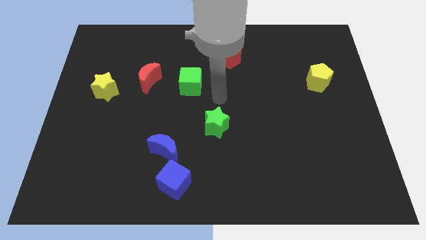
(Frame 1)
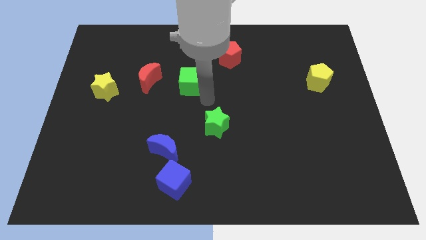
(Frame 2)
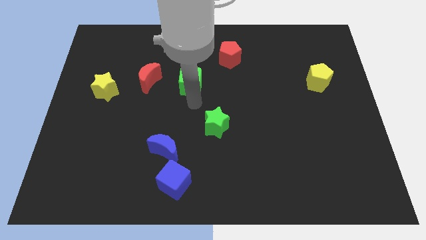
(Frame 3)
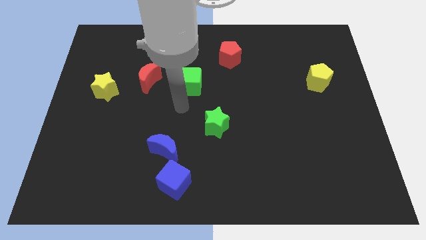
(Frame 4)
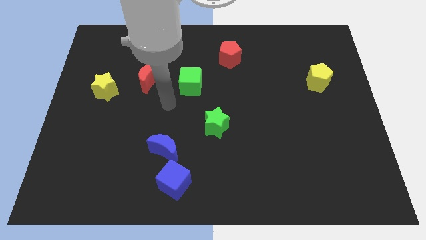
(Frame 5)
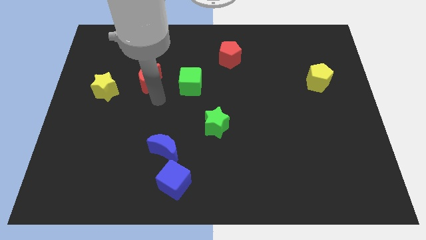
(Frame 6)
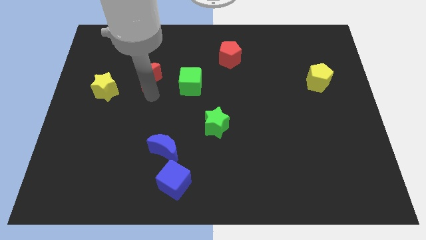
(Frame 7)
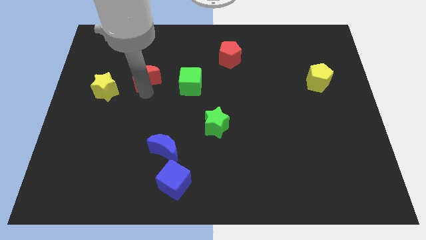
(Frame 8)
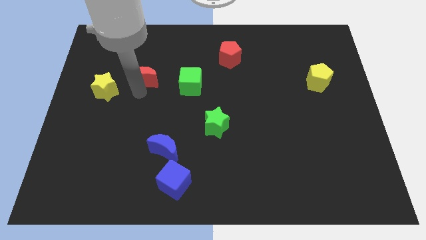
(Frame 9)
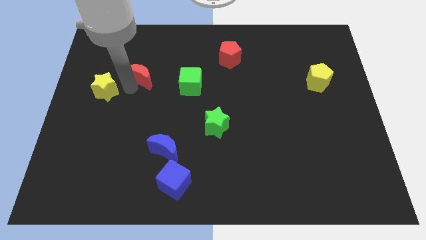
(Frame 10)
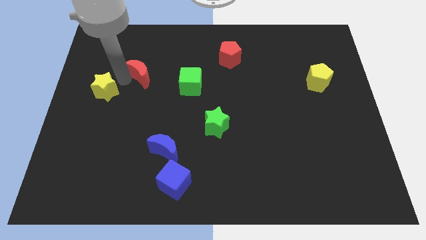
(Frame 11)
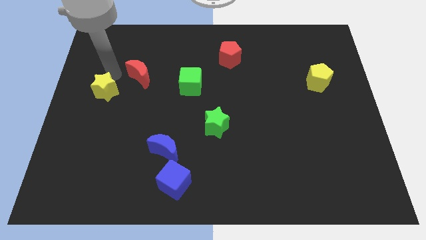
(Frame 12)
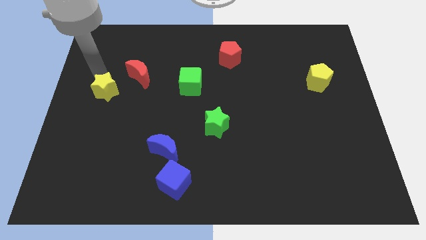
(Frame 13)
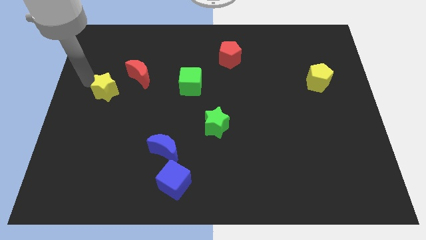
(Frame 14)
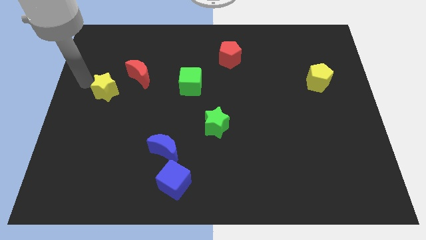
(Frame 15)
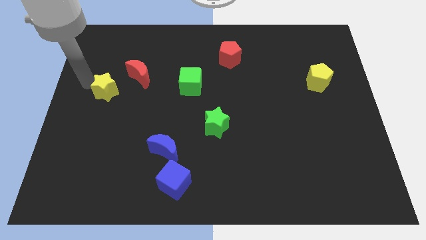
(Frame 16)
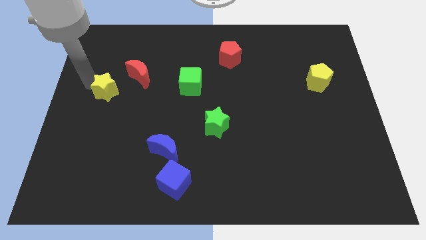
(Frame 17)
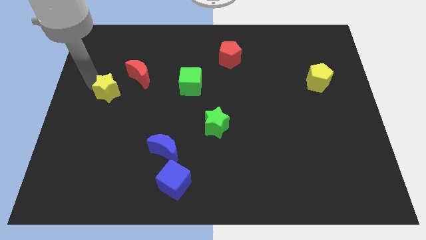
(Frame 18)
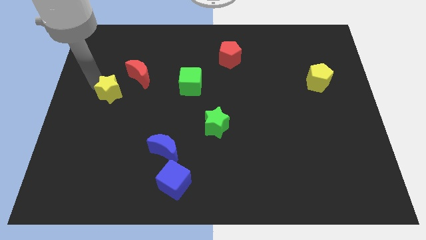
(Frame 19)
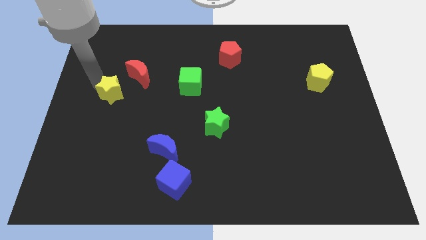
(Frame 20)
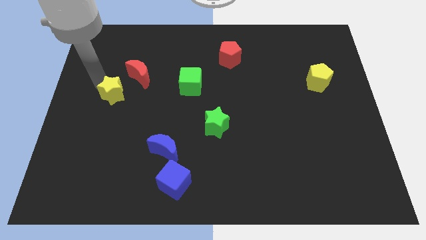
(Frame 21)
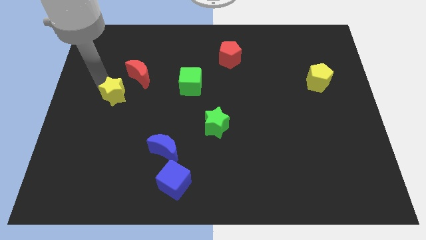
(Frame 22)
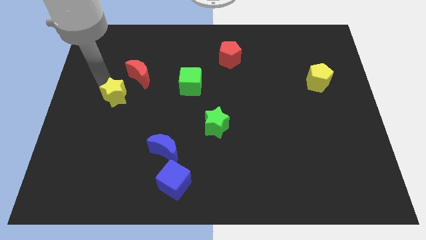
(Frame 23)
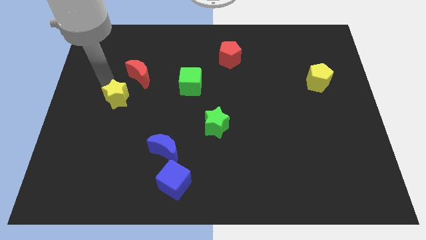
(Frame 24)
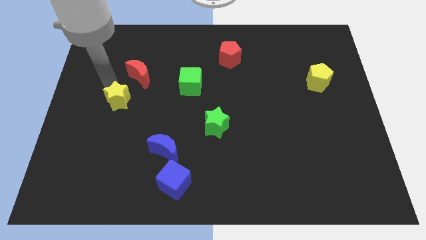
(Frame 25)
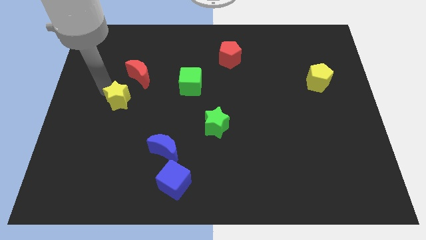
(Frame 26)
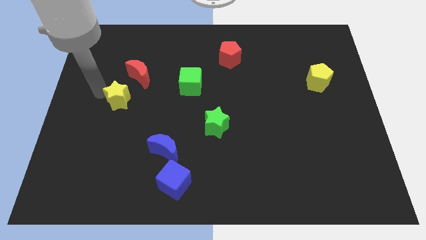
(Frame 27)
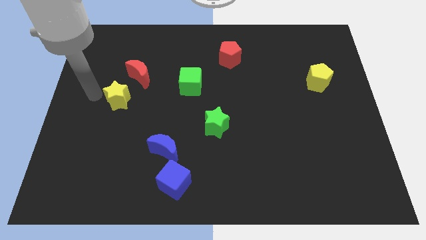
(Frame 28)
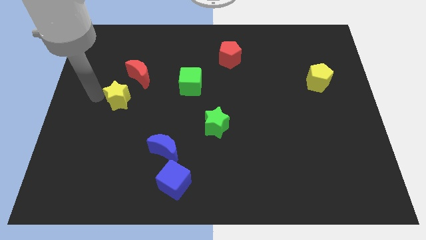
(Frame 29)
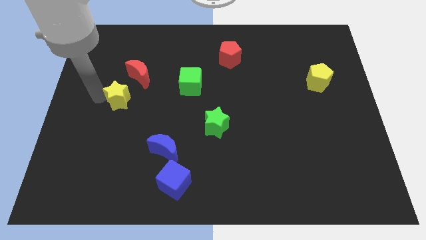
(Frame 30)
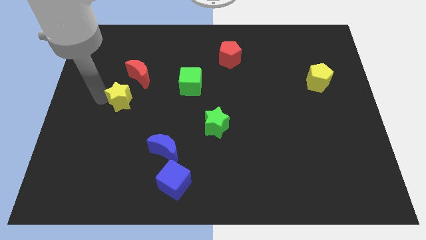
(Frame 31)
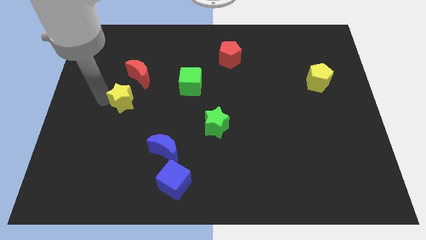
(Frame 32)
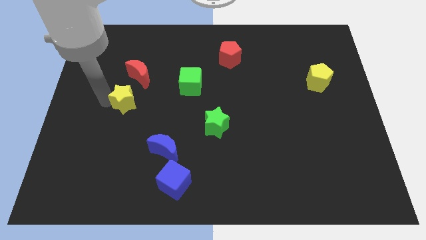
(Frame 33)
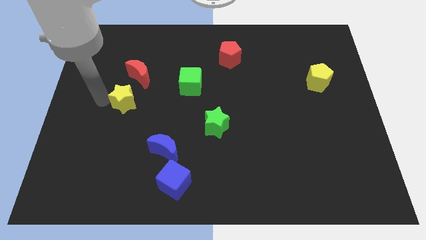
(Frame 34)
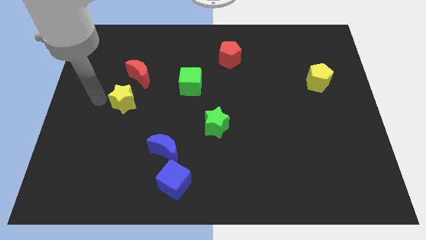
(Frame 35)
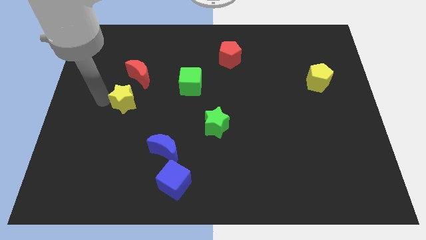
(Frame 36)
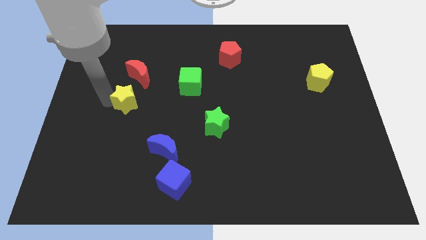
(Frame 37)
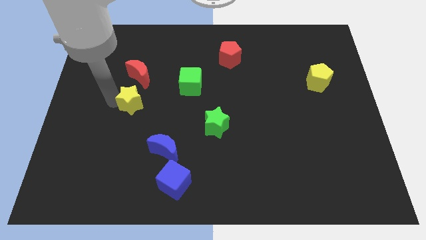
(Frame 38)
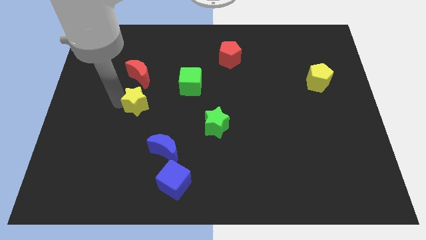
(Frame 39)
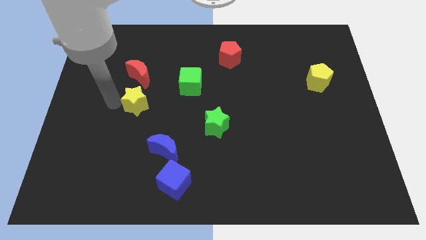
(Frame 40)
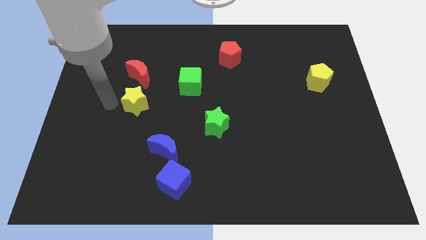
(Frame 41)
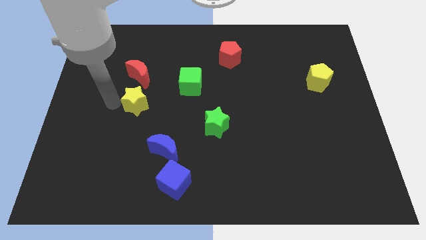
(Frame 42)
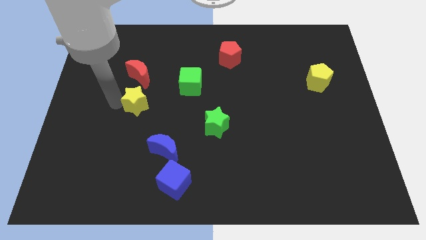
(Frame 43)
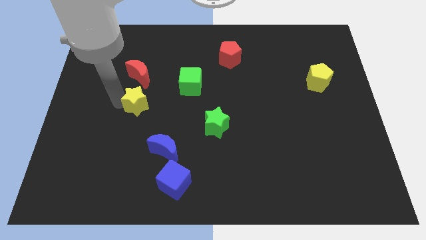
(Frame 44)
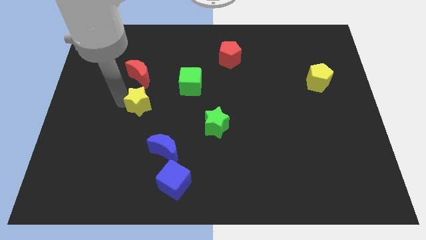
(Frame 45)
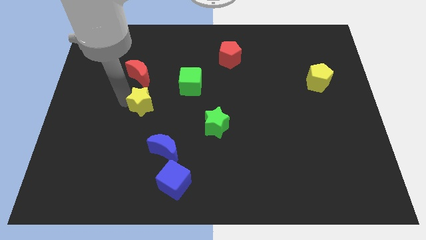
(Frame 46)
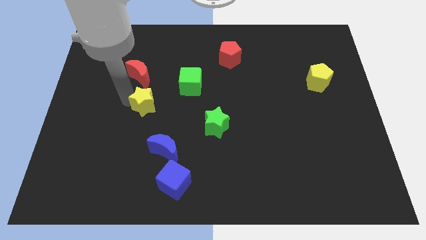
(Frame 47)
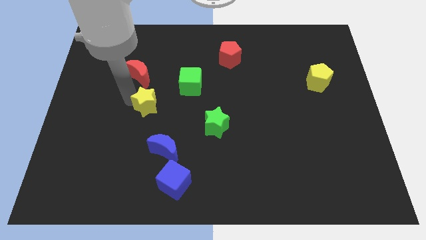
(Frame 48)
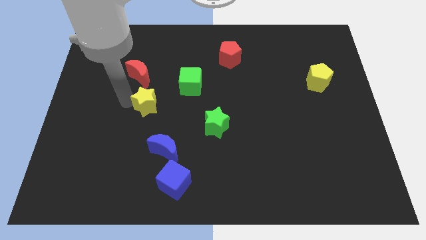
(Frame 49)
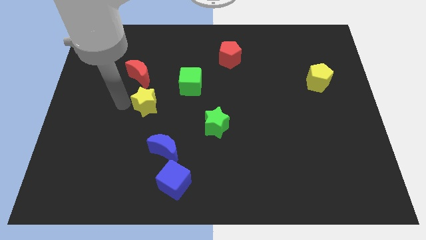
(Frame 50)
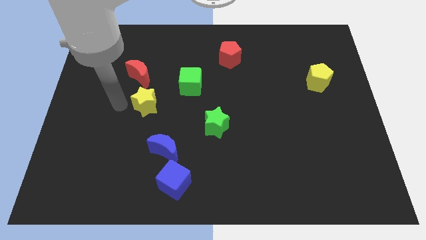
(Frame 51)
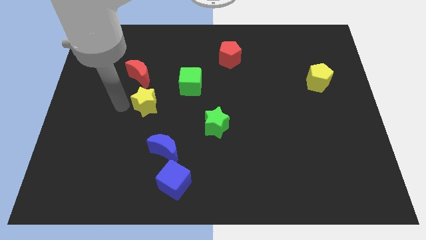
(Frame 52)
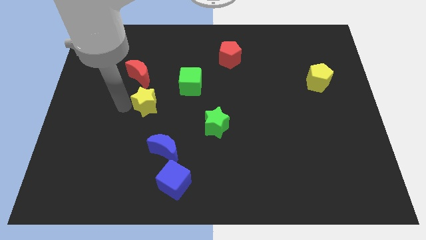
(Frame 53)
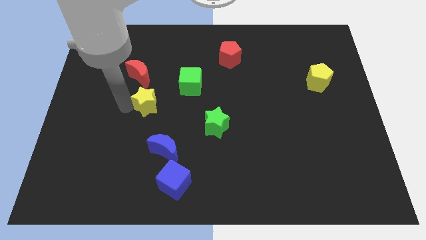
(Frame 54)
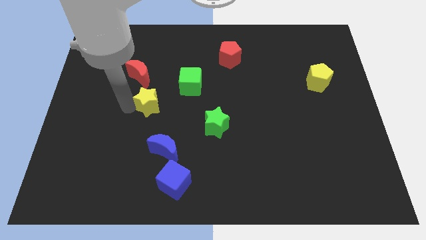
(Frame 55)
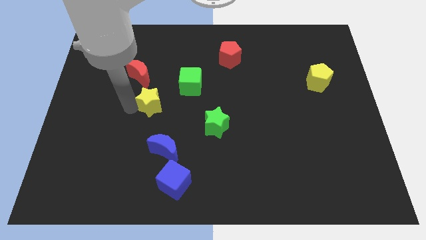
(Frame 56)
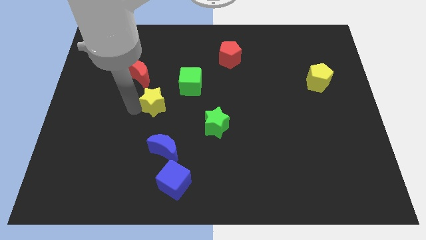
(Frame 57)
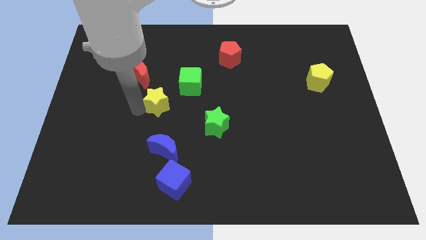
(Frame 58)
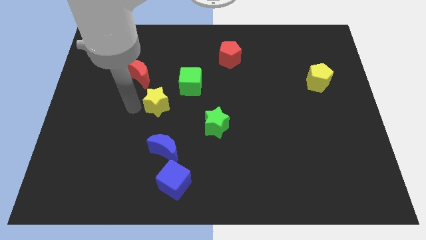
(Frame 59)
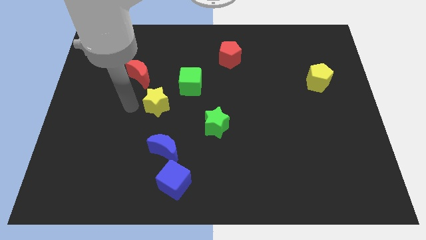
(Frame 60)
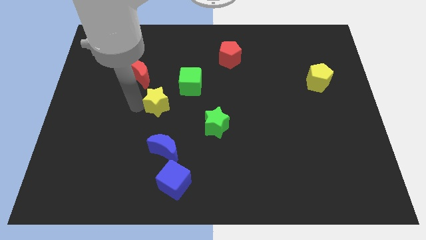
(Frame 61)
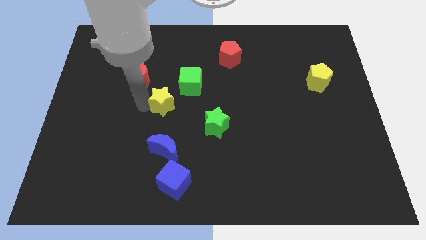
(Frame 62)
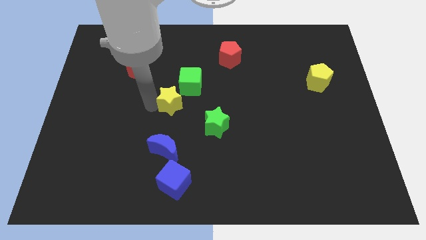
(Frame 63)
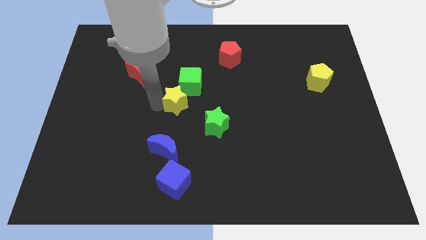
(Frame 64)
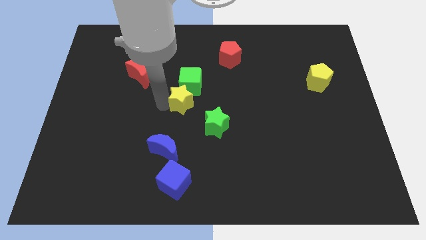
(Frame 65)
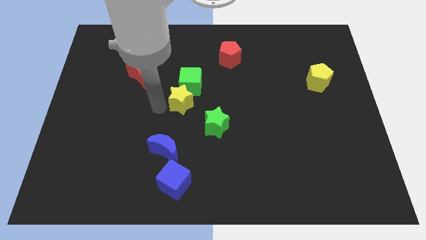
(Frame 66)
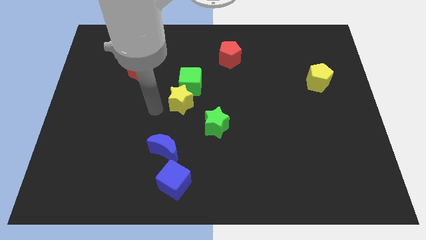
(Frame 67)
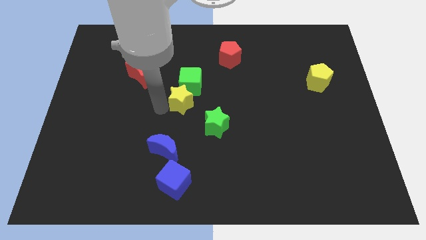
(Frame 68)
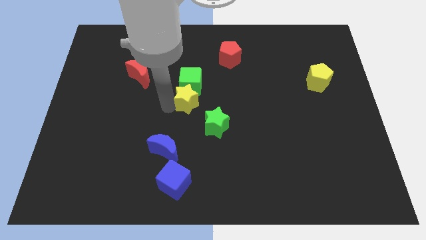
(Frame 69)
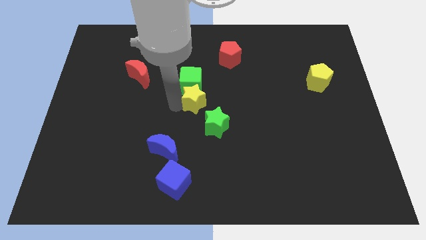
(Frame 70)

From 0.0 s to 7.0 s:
push the yellow star right

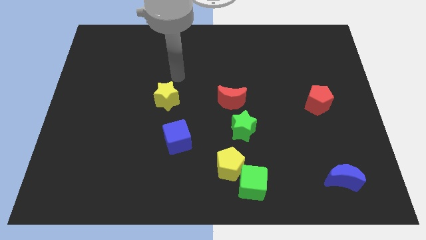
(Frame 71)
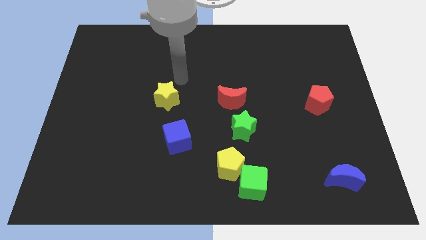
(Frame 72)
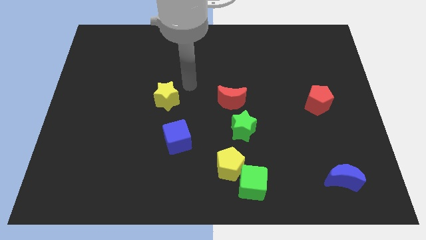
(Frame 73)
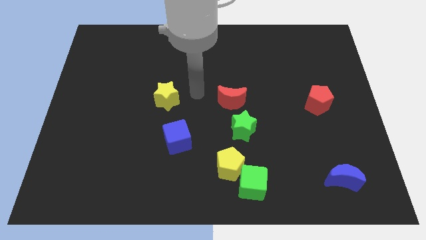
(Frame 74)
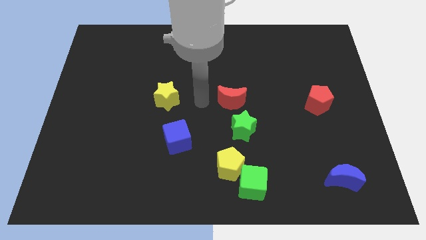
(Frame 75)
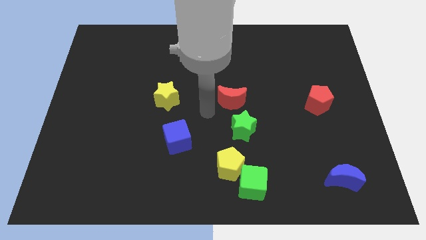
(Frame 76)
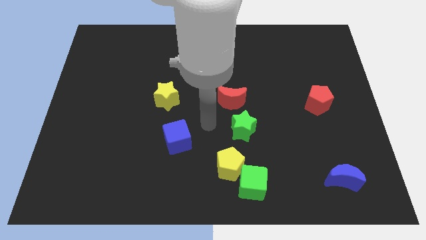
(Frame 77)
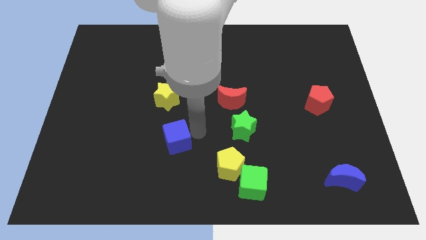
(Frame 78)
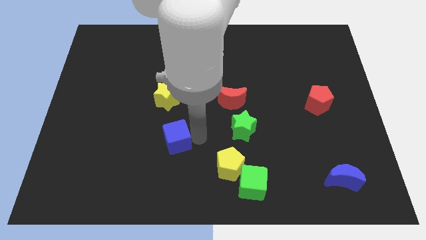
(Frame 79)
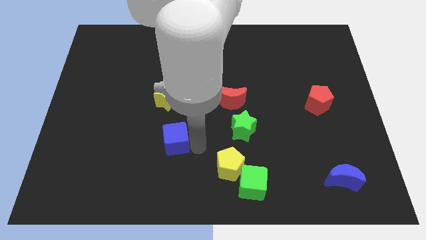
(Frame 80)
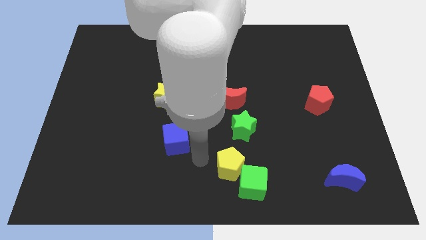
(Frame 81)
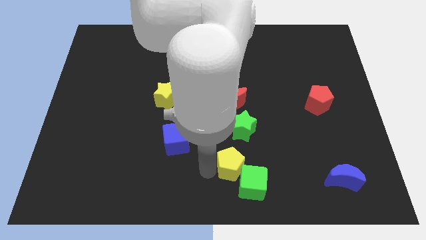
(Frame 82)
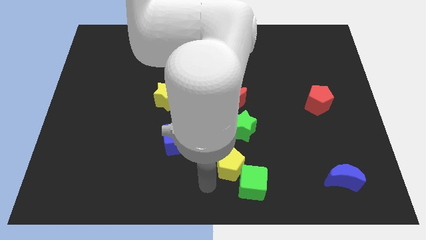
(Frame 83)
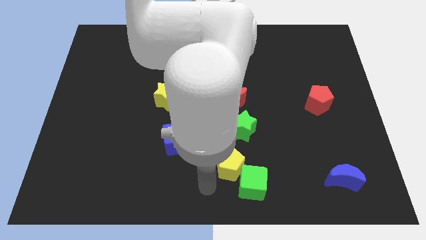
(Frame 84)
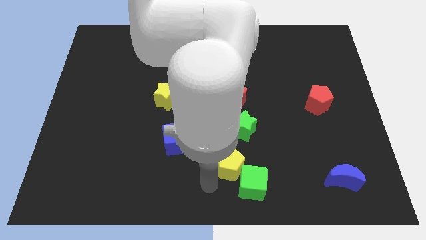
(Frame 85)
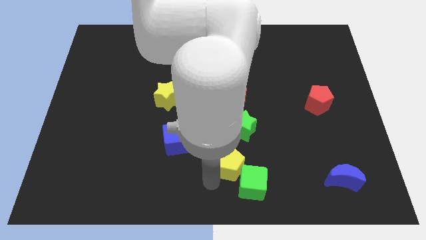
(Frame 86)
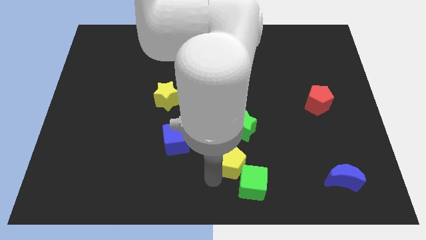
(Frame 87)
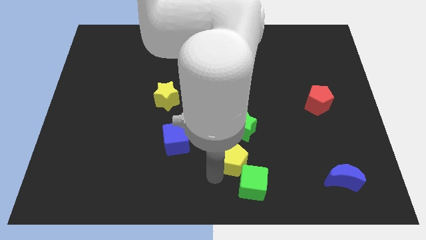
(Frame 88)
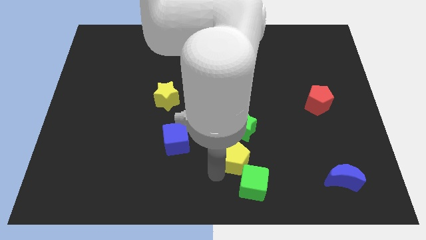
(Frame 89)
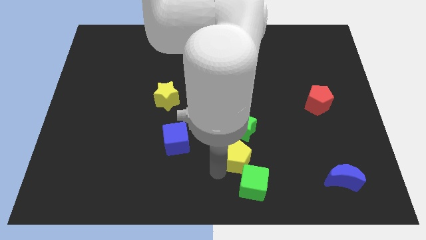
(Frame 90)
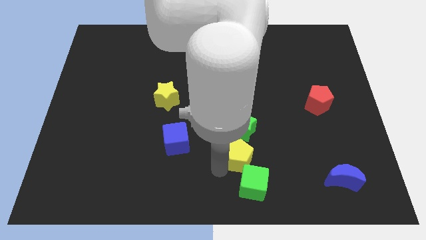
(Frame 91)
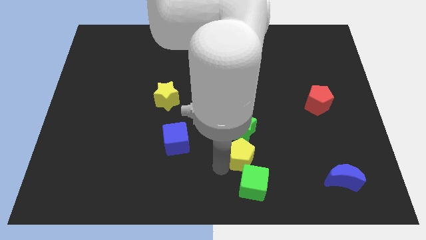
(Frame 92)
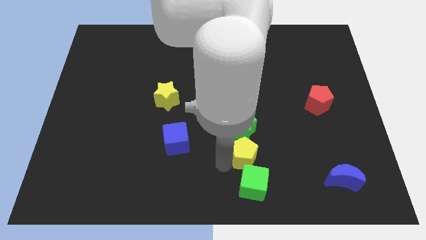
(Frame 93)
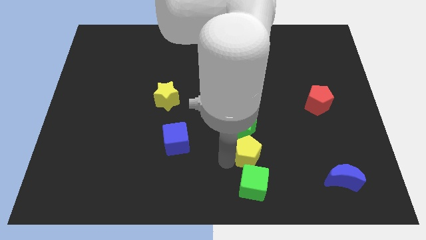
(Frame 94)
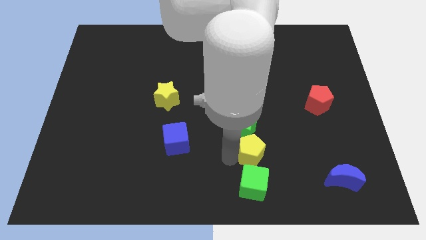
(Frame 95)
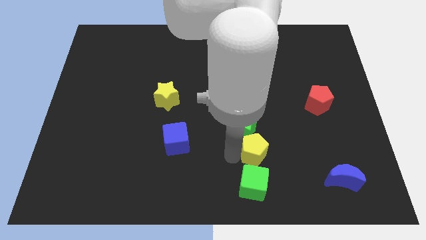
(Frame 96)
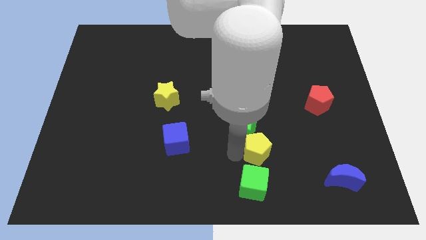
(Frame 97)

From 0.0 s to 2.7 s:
move the yellow pentagon upwards and to the right slightly
